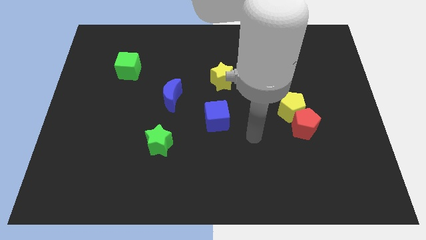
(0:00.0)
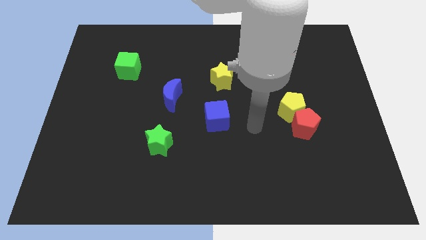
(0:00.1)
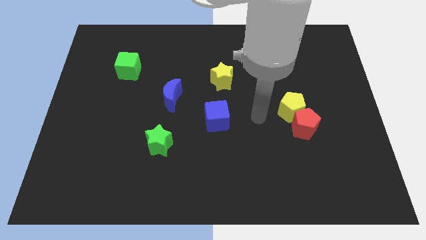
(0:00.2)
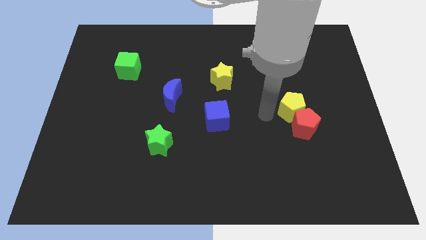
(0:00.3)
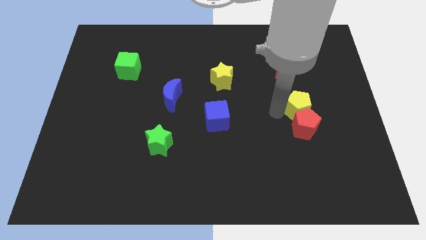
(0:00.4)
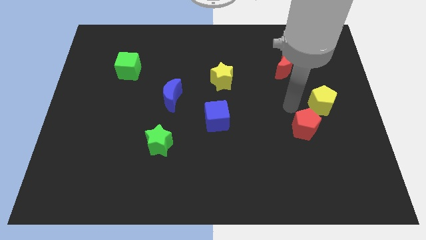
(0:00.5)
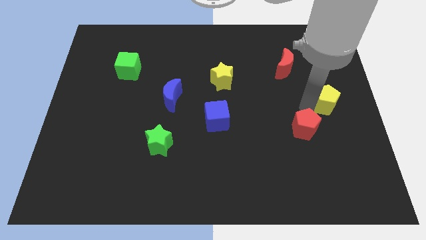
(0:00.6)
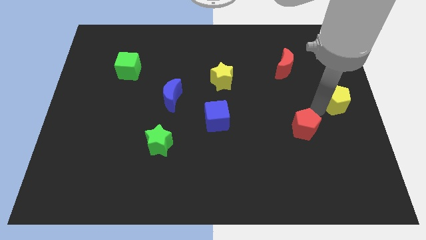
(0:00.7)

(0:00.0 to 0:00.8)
pull the red pentagon apart from the yellow pentagon

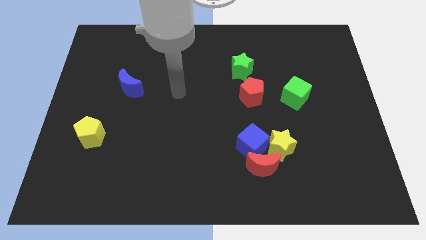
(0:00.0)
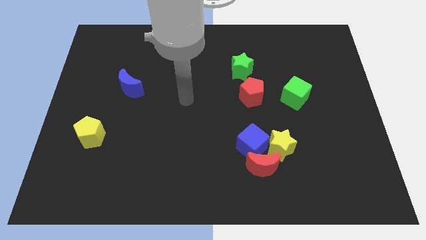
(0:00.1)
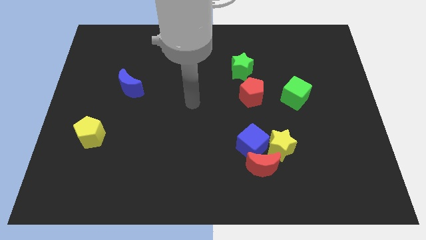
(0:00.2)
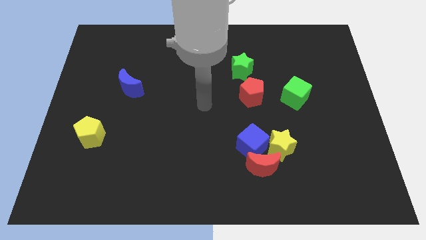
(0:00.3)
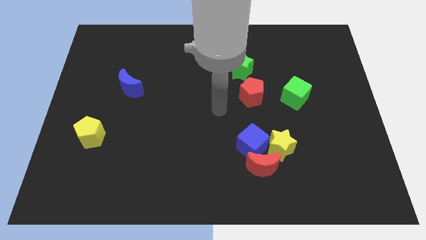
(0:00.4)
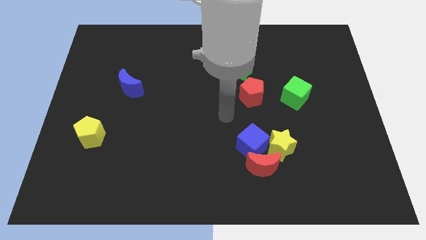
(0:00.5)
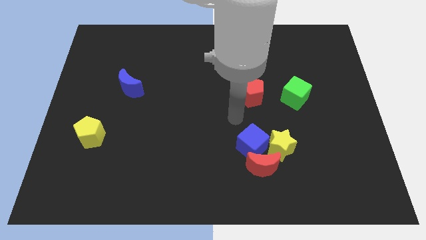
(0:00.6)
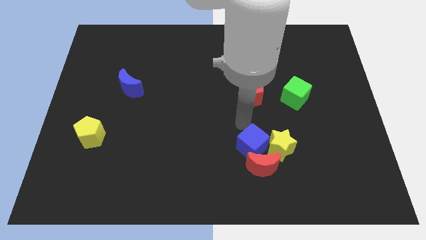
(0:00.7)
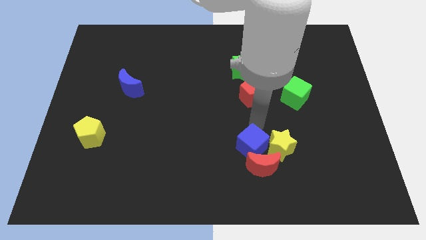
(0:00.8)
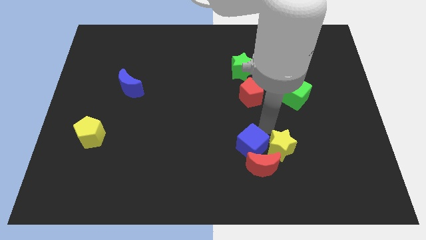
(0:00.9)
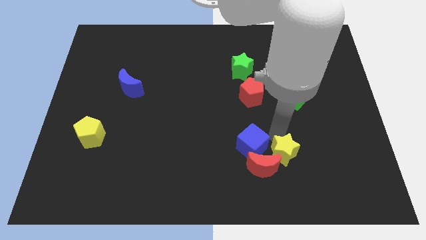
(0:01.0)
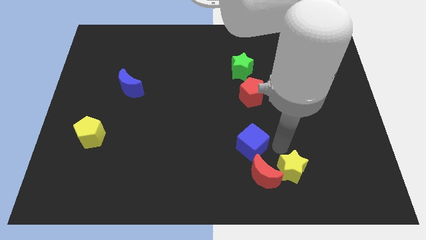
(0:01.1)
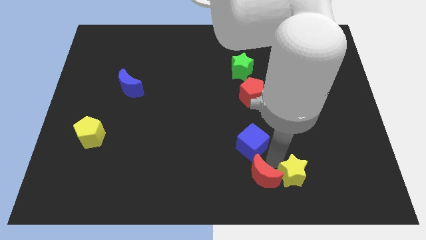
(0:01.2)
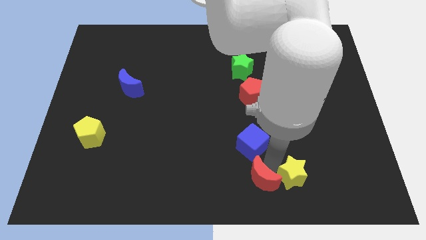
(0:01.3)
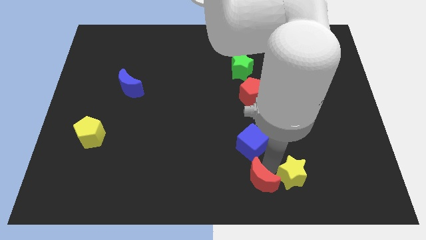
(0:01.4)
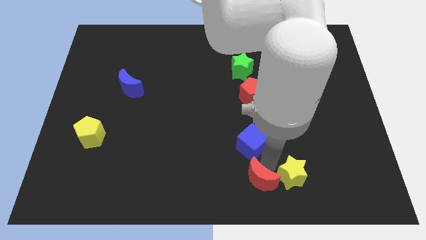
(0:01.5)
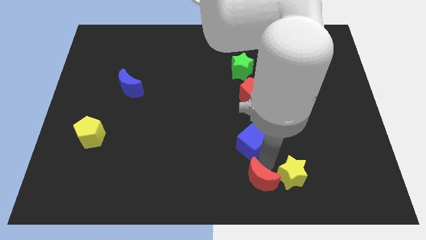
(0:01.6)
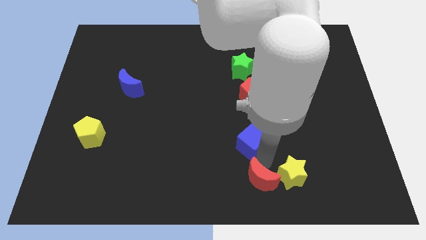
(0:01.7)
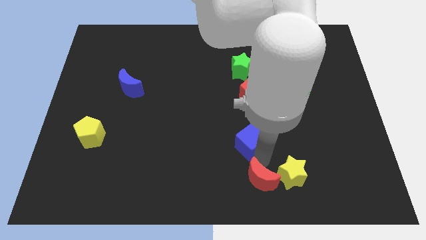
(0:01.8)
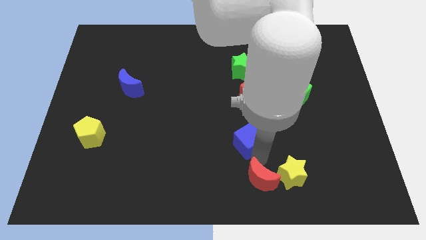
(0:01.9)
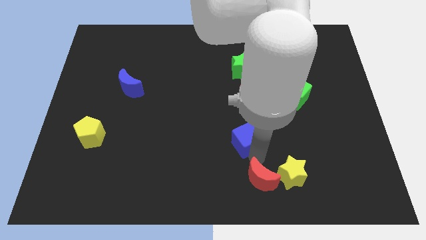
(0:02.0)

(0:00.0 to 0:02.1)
move the blue cube away from the red moon and yellow star

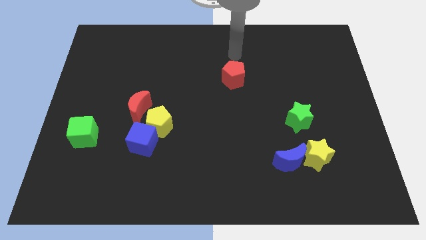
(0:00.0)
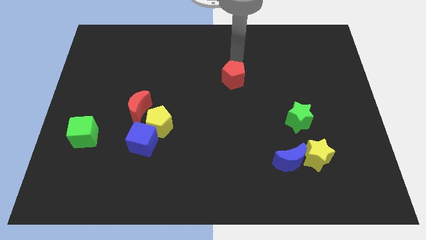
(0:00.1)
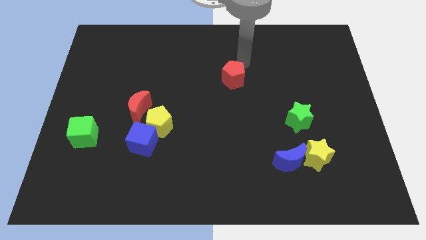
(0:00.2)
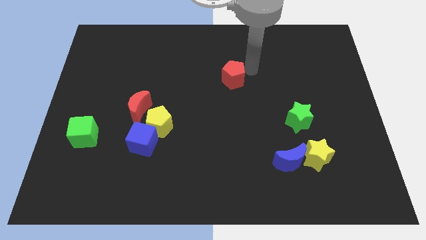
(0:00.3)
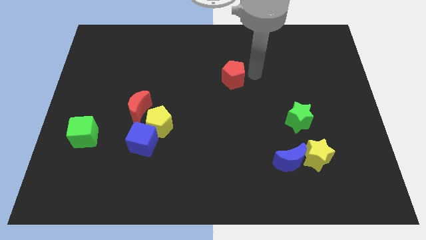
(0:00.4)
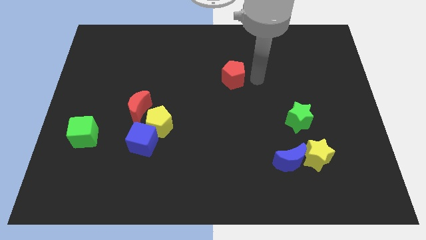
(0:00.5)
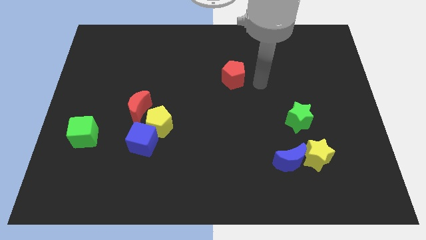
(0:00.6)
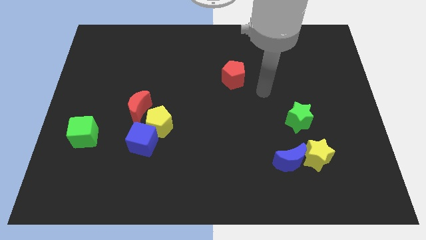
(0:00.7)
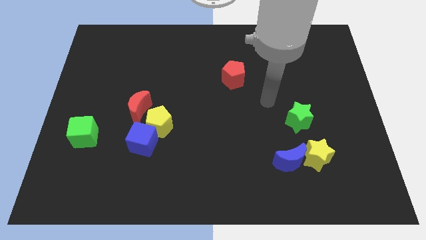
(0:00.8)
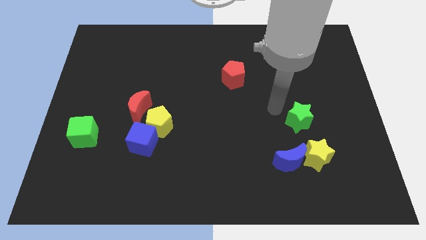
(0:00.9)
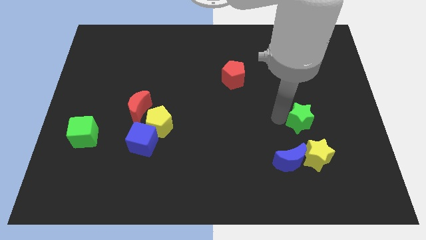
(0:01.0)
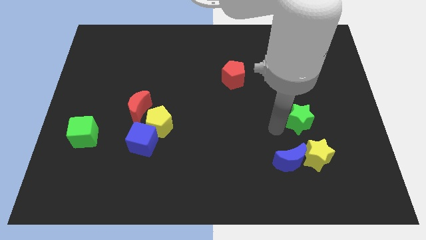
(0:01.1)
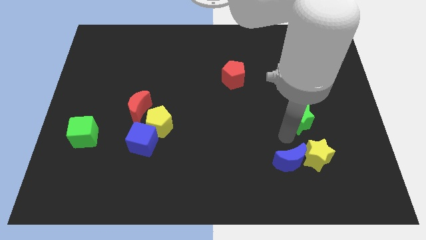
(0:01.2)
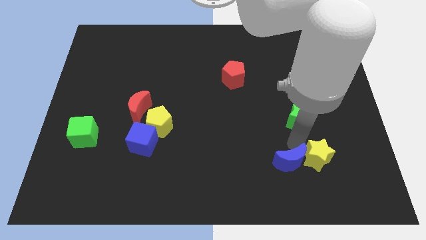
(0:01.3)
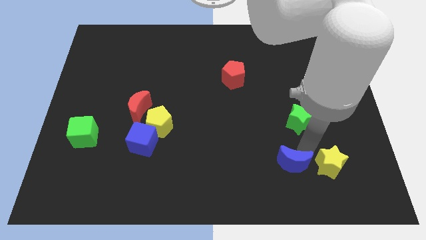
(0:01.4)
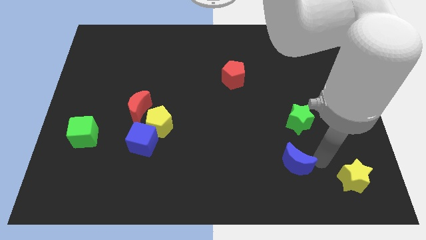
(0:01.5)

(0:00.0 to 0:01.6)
pull the blue moon apart from the yellow star

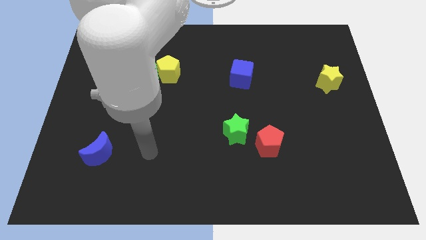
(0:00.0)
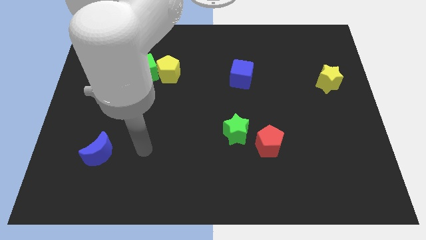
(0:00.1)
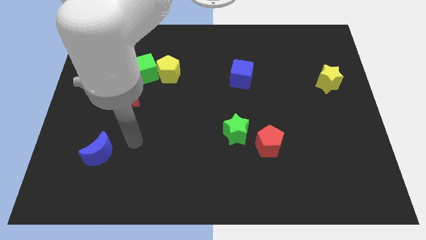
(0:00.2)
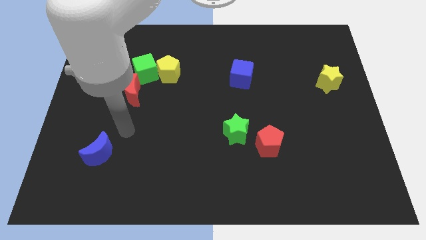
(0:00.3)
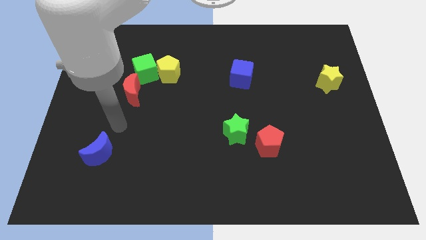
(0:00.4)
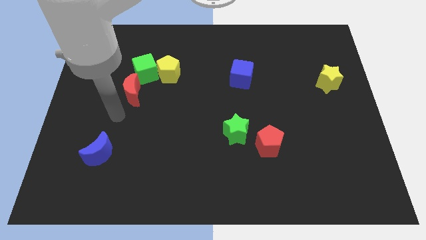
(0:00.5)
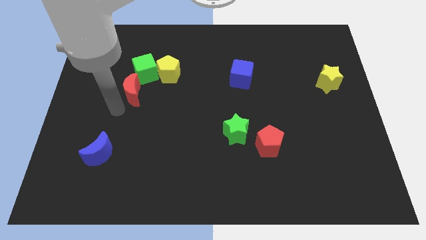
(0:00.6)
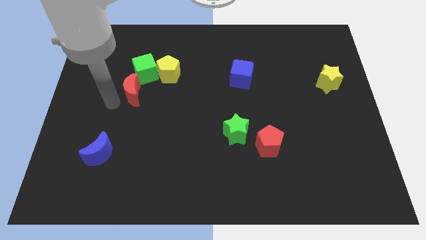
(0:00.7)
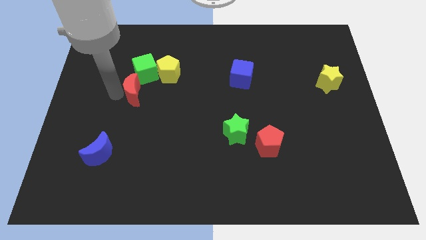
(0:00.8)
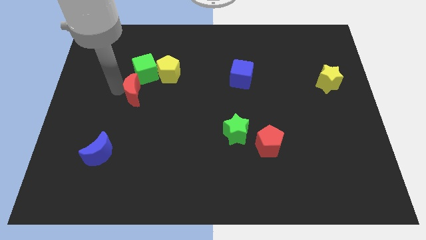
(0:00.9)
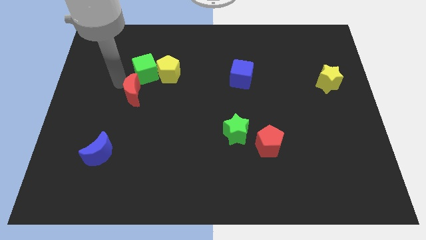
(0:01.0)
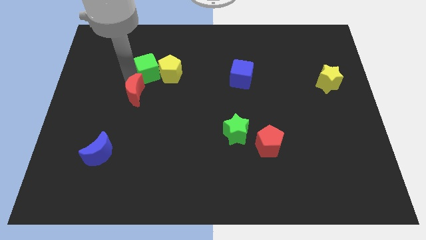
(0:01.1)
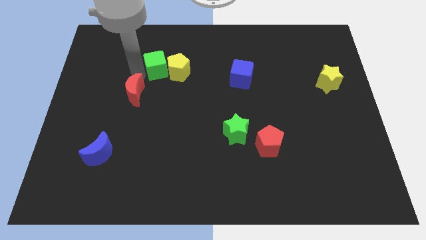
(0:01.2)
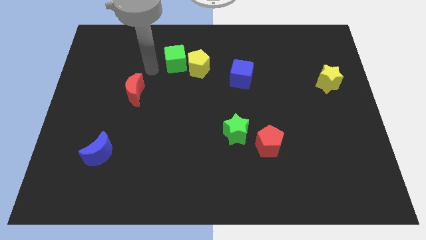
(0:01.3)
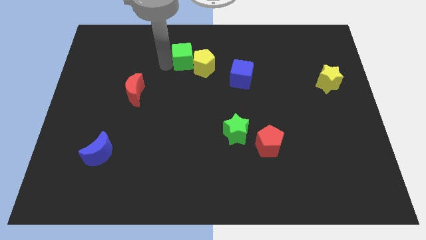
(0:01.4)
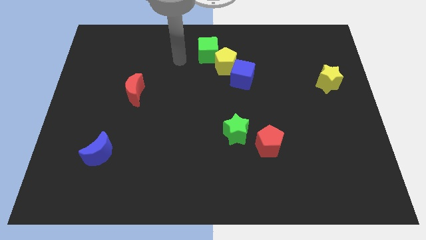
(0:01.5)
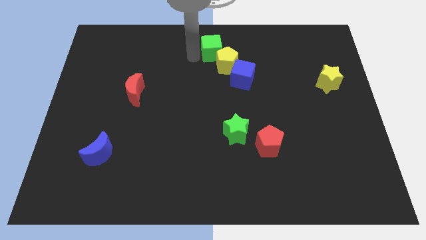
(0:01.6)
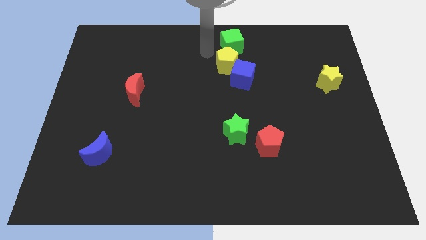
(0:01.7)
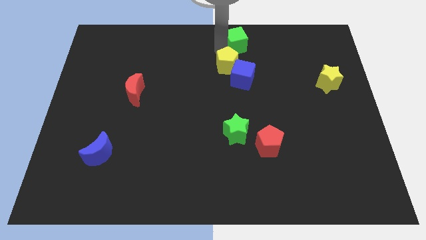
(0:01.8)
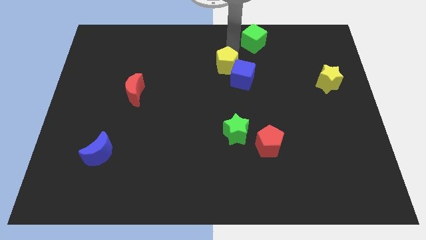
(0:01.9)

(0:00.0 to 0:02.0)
move the yellow pentagon away from the green cube

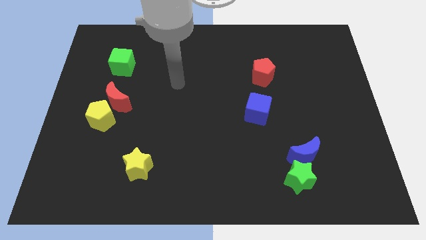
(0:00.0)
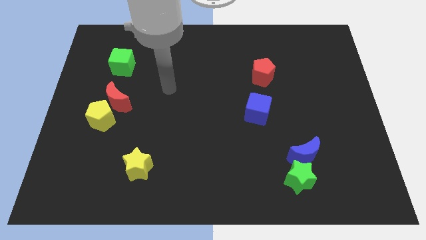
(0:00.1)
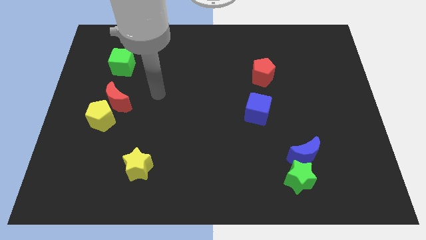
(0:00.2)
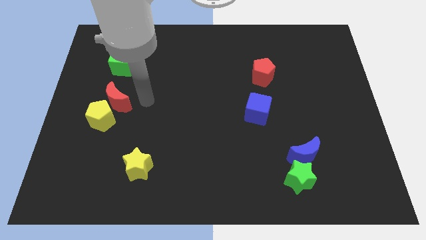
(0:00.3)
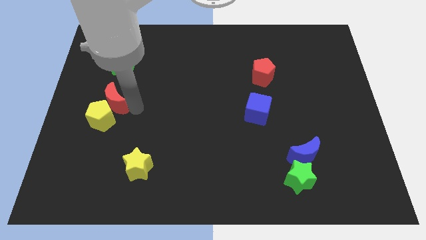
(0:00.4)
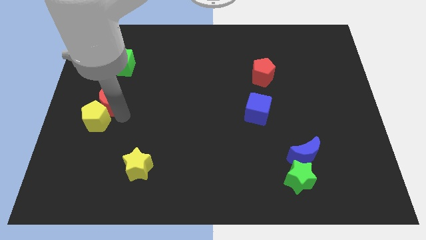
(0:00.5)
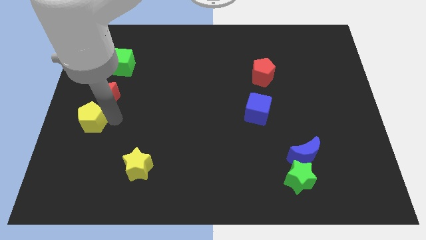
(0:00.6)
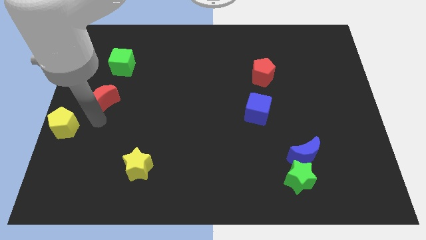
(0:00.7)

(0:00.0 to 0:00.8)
separate the red moon from the yellow pentagon

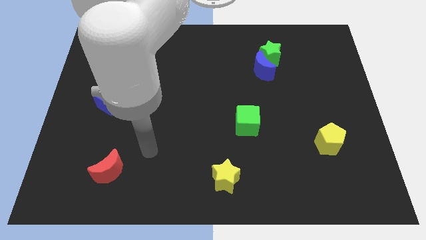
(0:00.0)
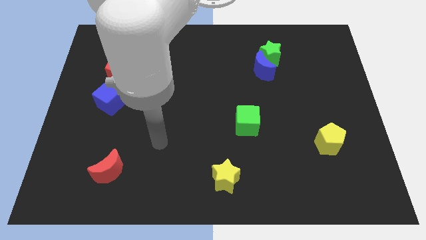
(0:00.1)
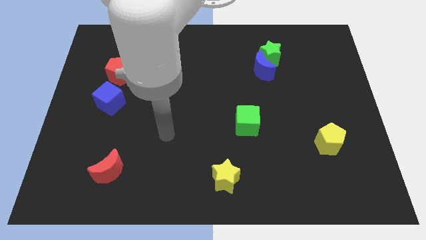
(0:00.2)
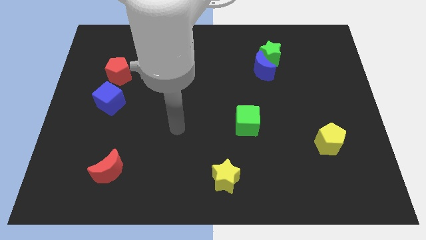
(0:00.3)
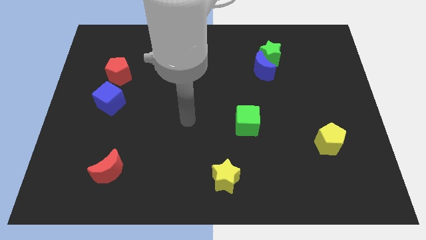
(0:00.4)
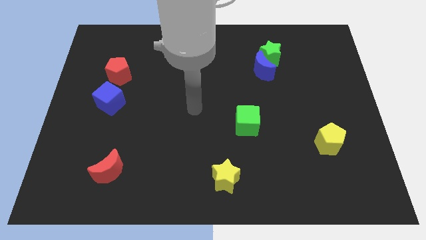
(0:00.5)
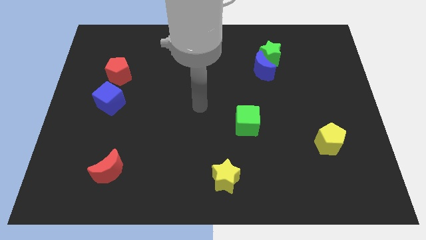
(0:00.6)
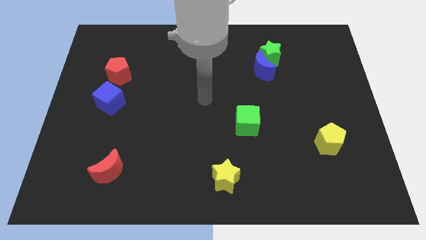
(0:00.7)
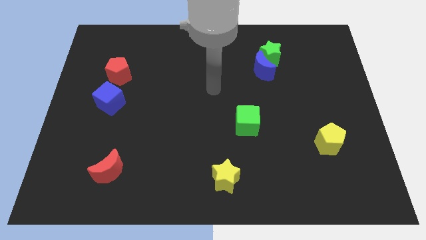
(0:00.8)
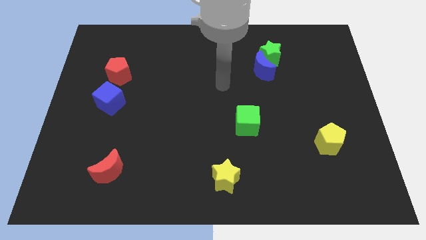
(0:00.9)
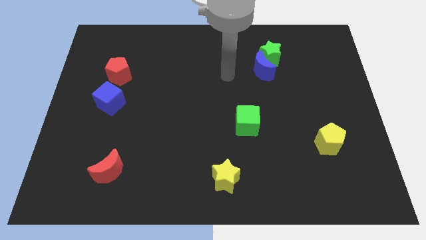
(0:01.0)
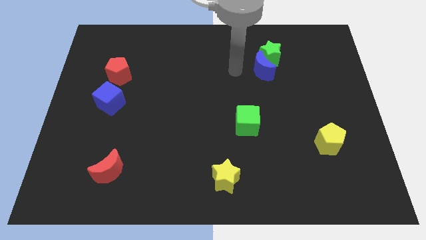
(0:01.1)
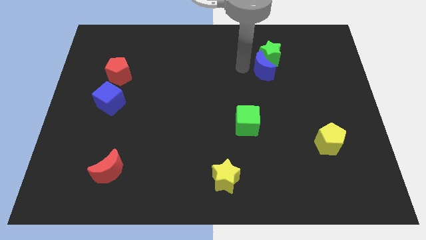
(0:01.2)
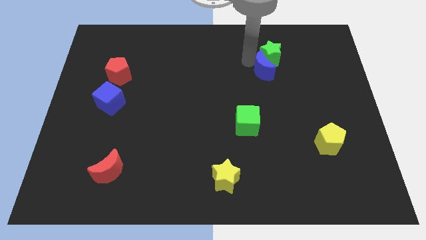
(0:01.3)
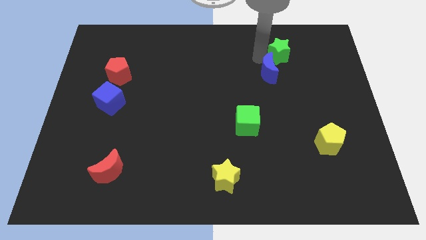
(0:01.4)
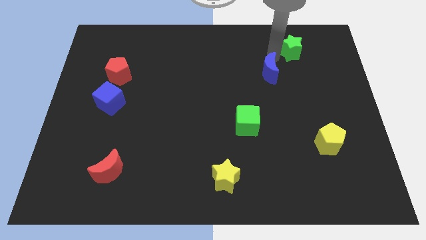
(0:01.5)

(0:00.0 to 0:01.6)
pull the blue moon apart from the green star

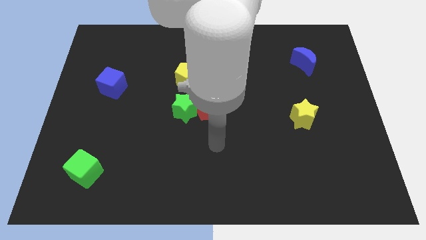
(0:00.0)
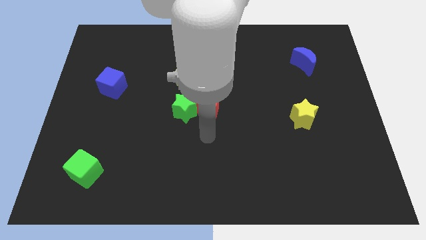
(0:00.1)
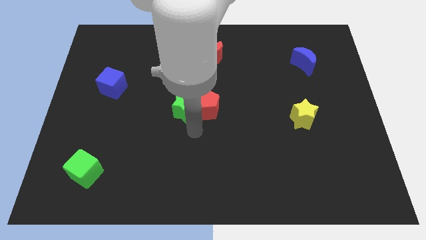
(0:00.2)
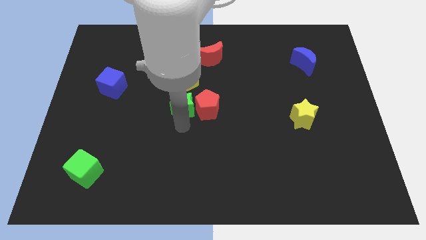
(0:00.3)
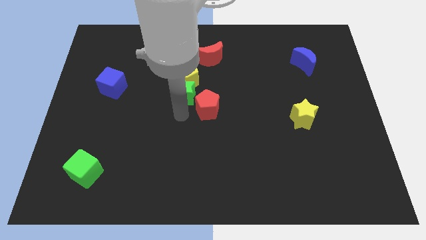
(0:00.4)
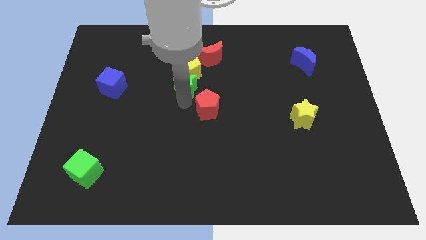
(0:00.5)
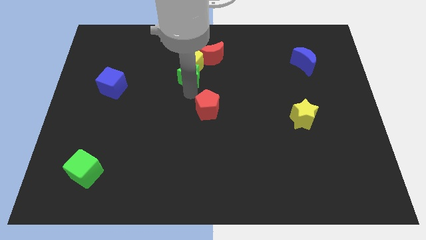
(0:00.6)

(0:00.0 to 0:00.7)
pull the red pentagon apart from the green star
